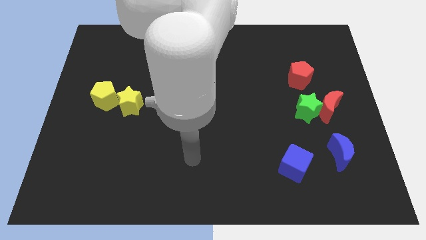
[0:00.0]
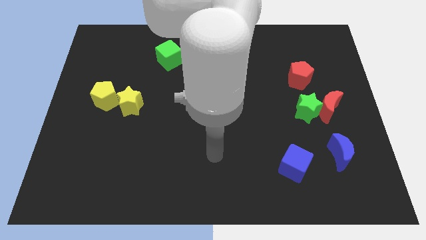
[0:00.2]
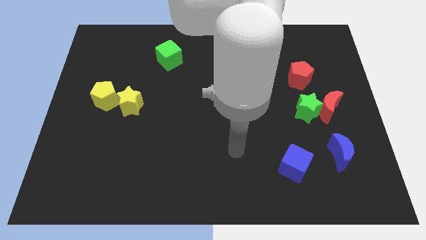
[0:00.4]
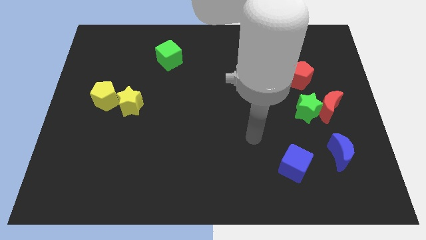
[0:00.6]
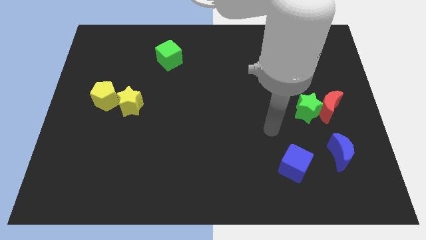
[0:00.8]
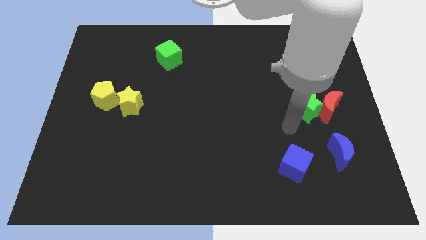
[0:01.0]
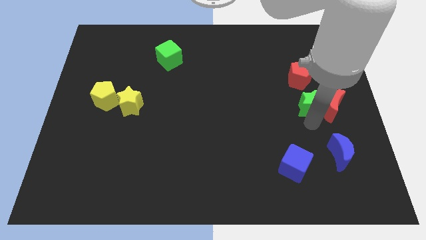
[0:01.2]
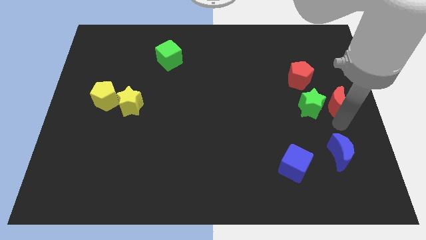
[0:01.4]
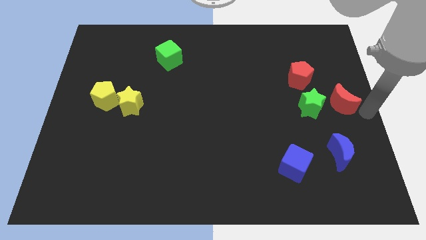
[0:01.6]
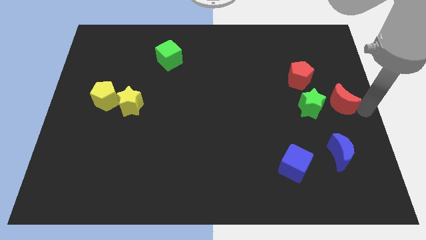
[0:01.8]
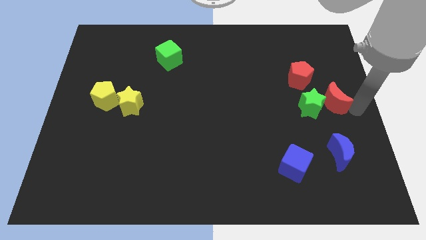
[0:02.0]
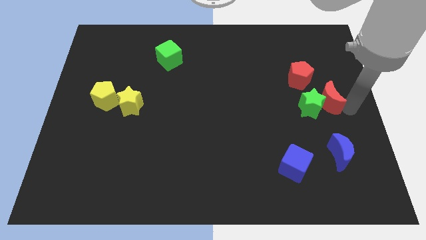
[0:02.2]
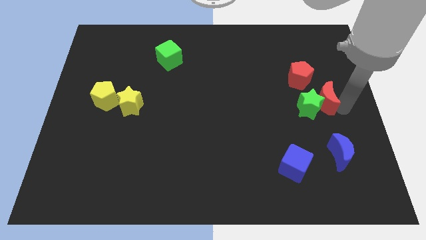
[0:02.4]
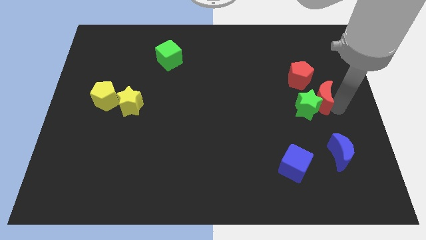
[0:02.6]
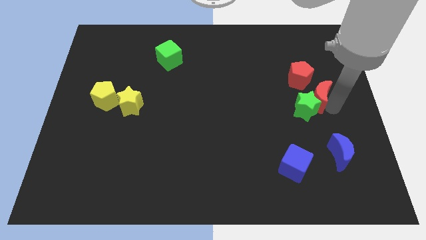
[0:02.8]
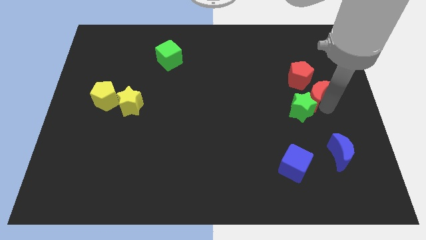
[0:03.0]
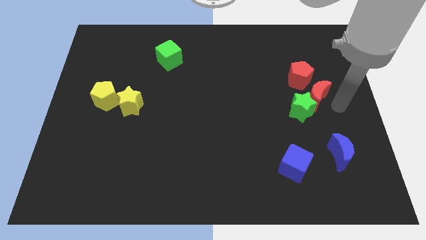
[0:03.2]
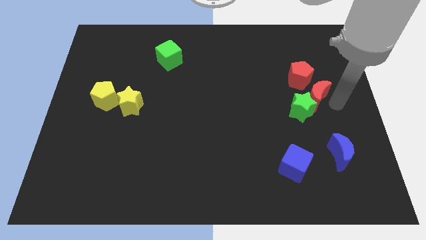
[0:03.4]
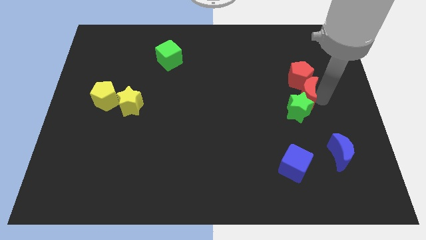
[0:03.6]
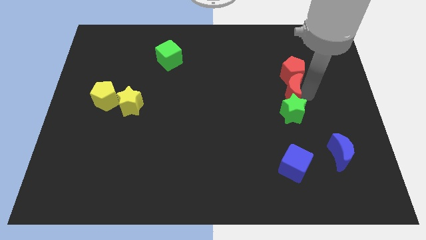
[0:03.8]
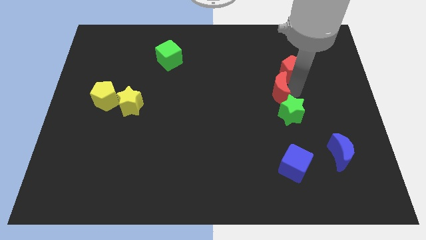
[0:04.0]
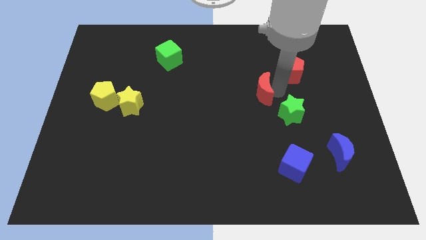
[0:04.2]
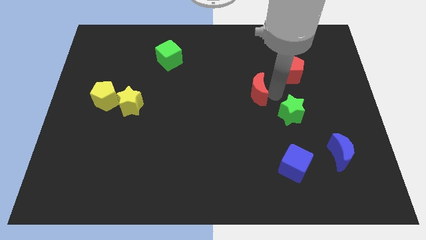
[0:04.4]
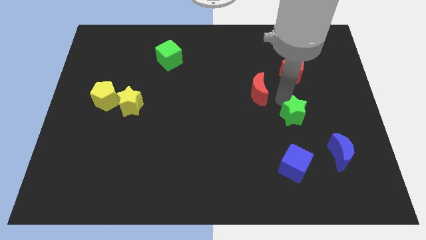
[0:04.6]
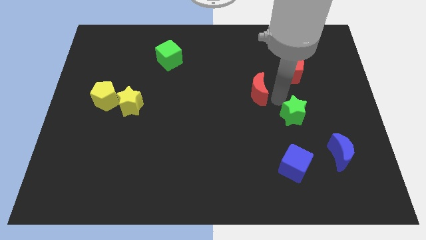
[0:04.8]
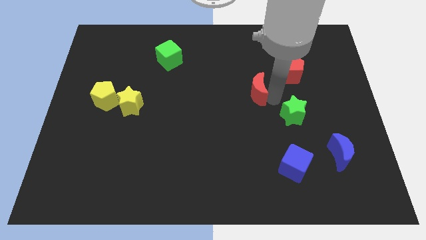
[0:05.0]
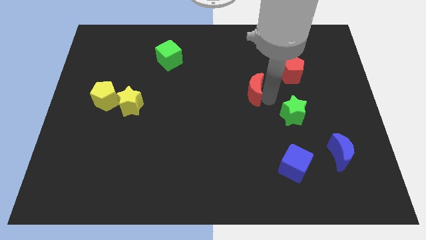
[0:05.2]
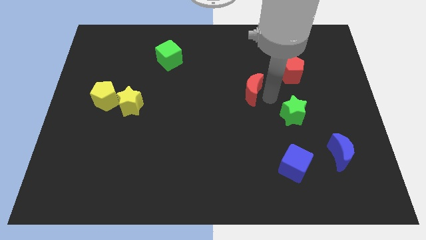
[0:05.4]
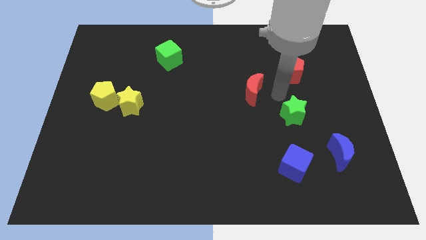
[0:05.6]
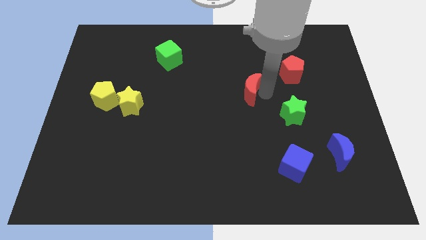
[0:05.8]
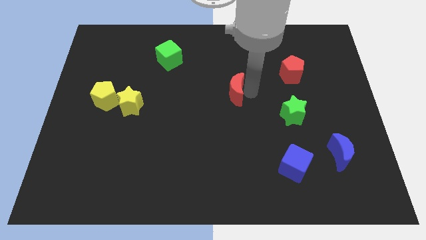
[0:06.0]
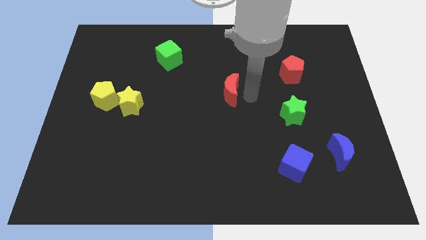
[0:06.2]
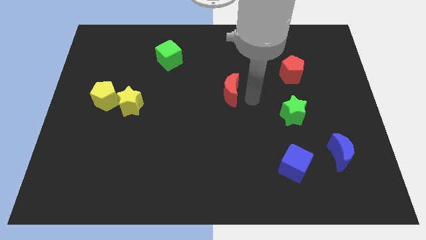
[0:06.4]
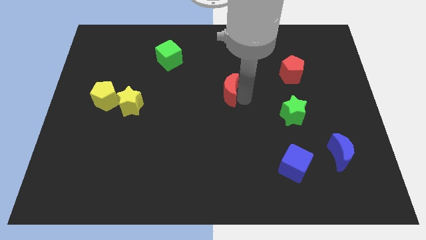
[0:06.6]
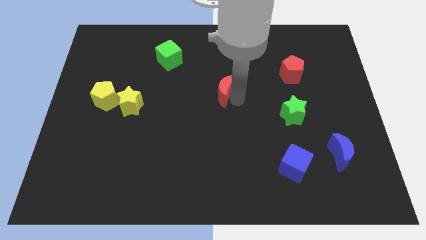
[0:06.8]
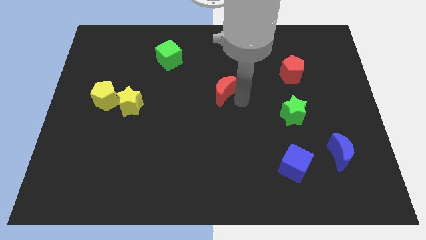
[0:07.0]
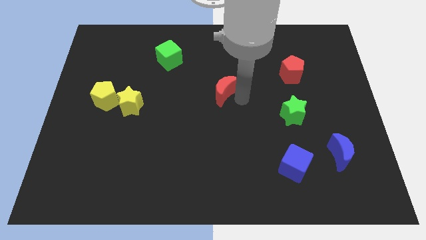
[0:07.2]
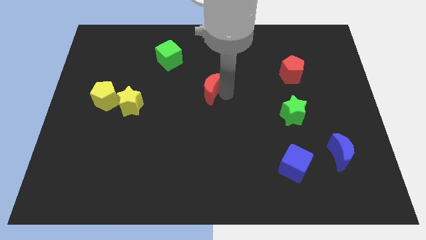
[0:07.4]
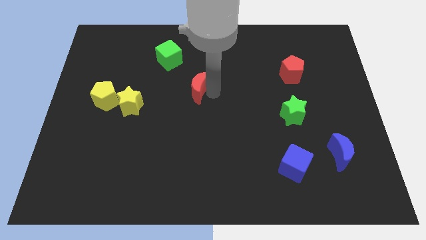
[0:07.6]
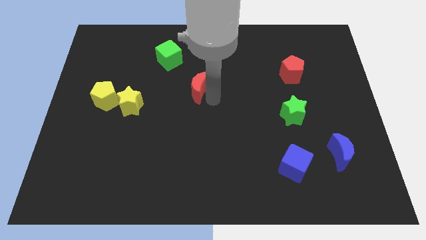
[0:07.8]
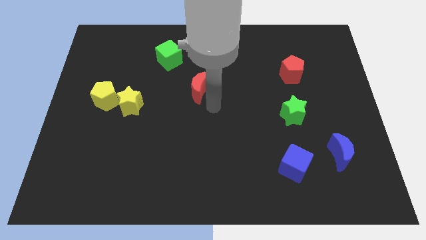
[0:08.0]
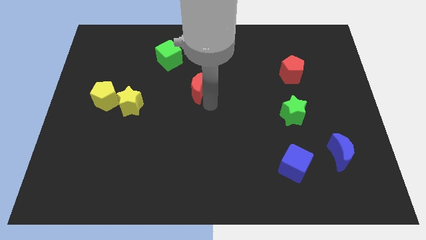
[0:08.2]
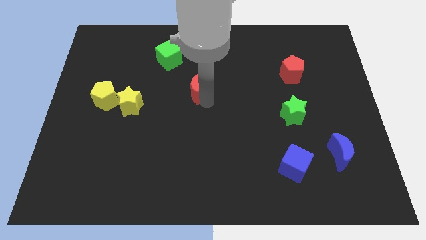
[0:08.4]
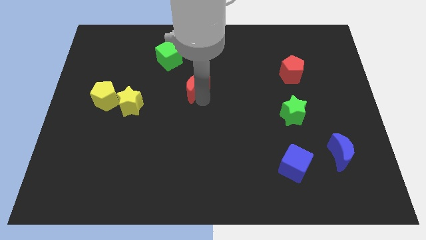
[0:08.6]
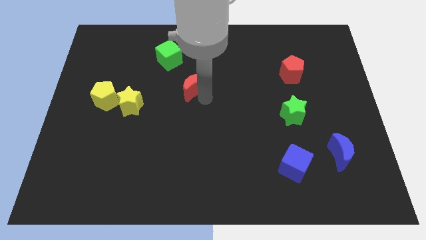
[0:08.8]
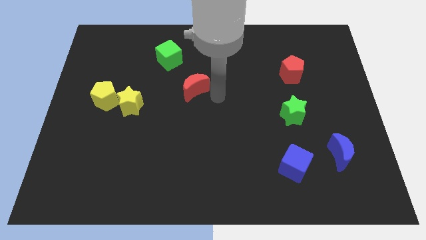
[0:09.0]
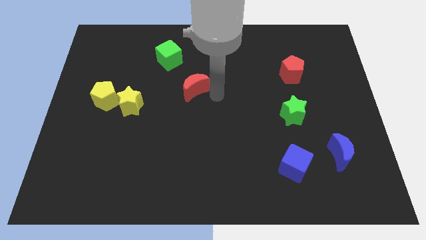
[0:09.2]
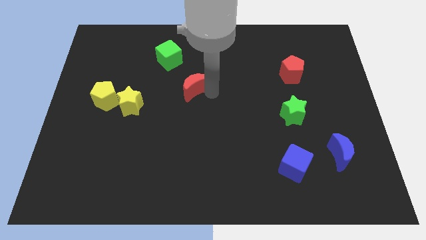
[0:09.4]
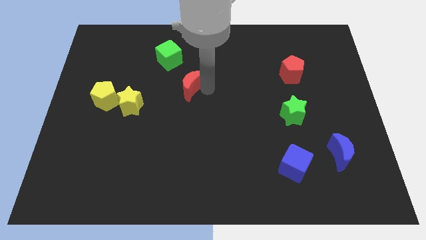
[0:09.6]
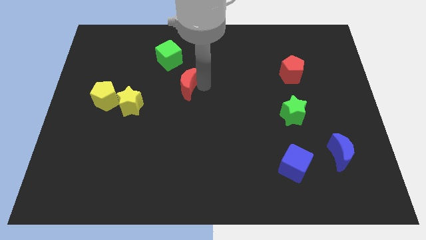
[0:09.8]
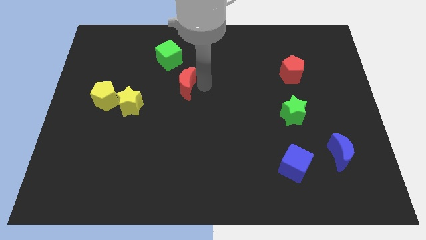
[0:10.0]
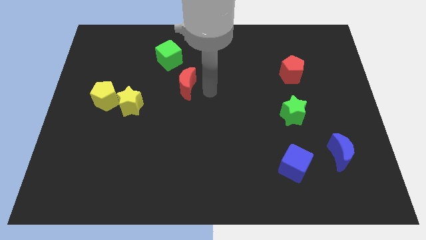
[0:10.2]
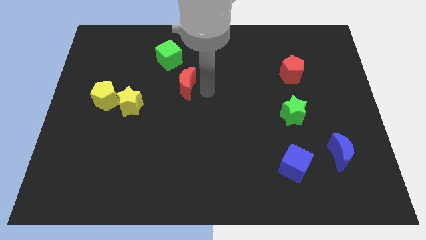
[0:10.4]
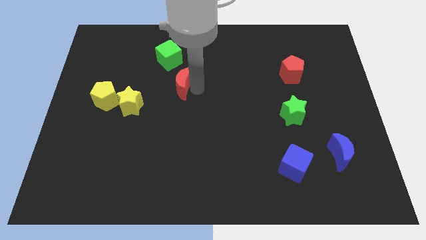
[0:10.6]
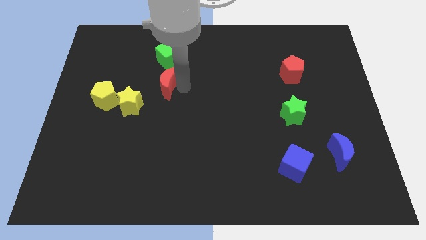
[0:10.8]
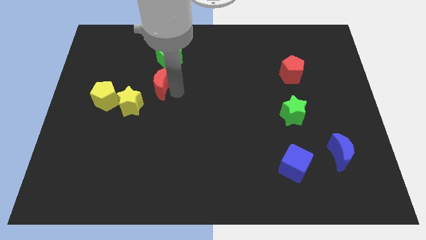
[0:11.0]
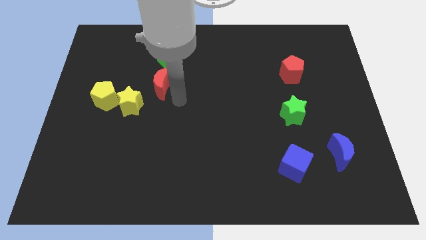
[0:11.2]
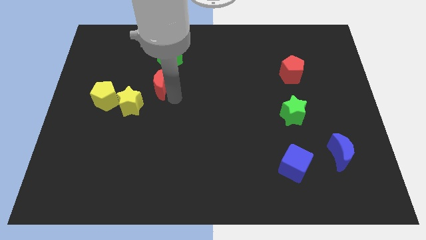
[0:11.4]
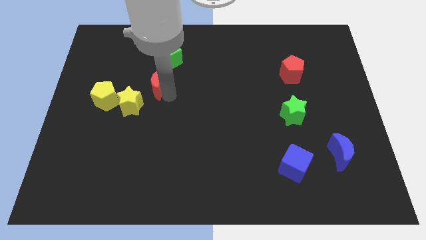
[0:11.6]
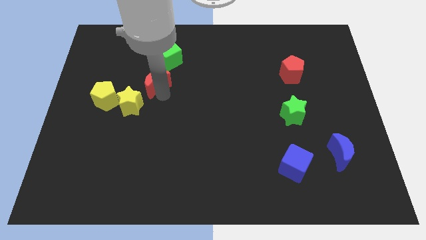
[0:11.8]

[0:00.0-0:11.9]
put the red moon to the bottom left side of the green cube

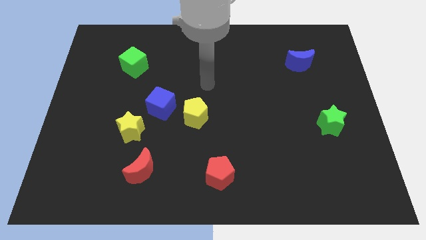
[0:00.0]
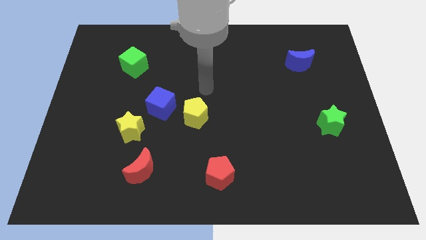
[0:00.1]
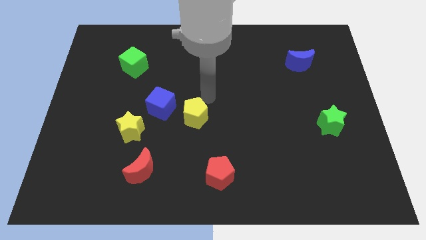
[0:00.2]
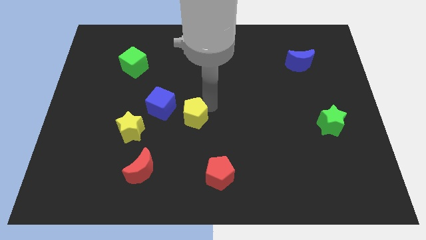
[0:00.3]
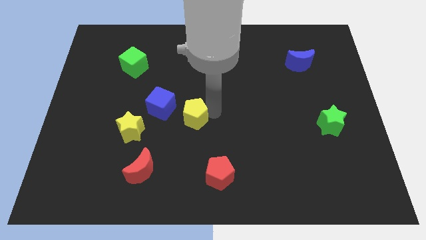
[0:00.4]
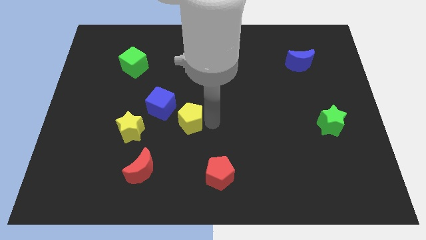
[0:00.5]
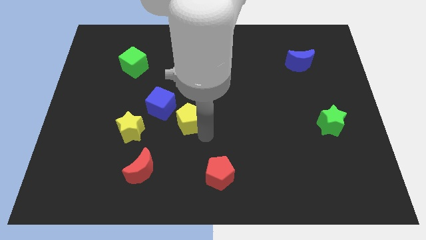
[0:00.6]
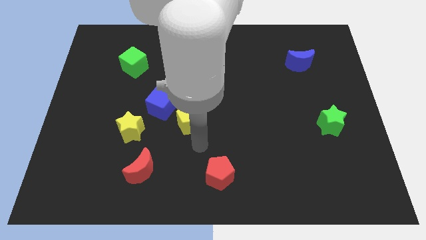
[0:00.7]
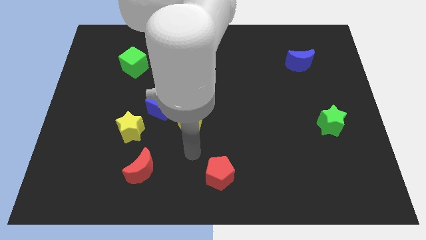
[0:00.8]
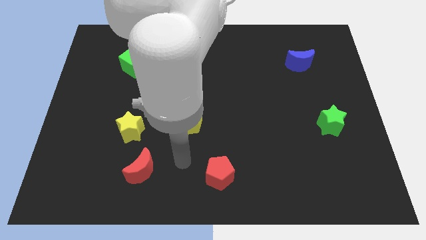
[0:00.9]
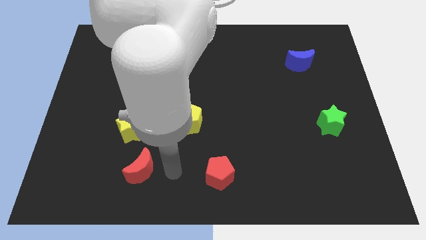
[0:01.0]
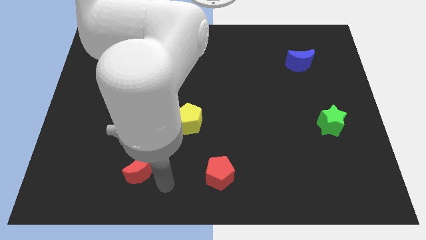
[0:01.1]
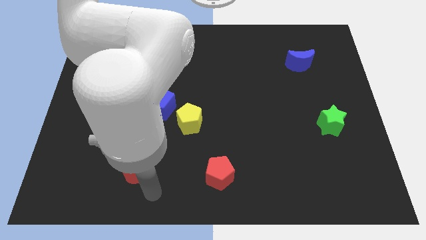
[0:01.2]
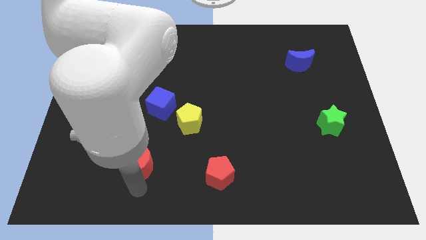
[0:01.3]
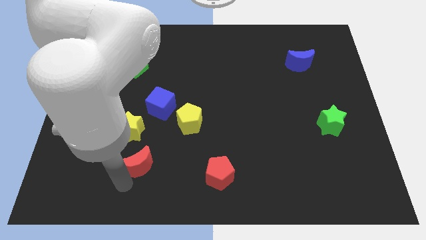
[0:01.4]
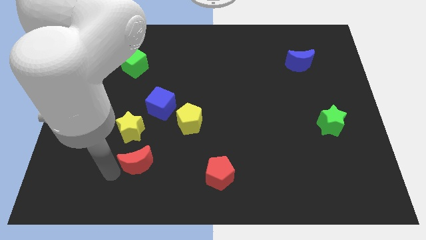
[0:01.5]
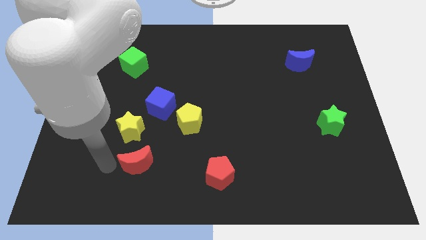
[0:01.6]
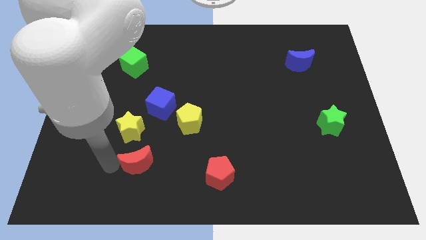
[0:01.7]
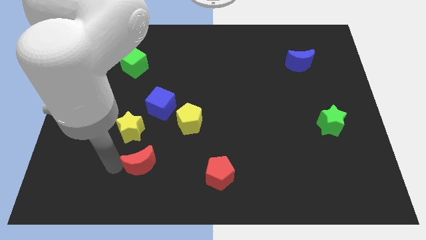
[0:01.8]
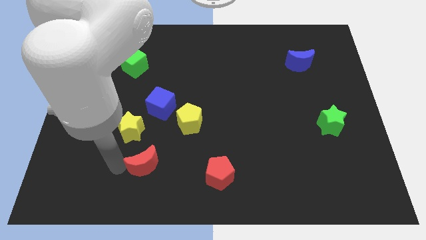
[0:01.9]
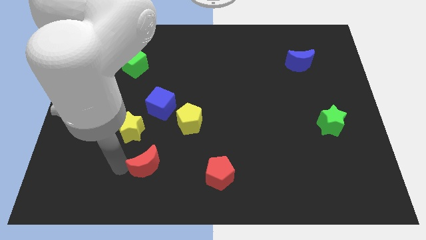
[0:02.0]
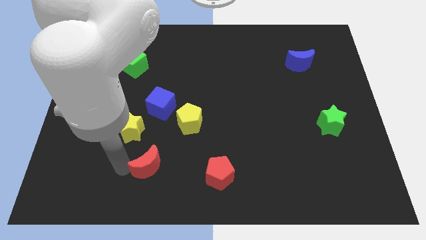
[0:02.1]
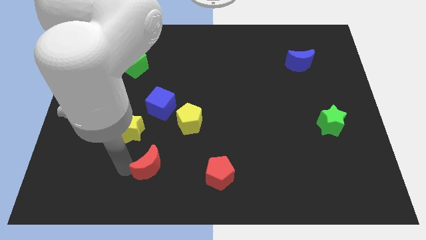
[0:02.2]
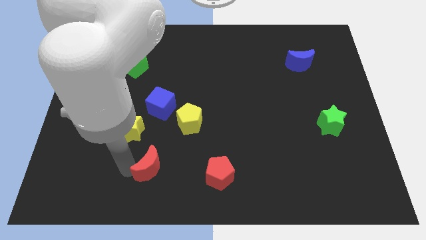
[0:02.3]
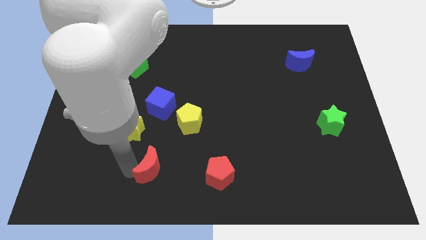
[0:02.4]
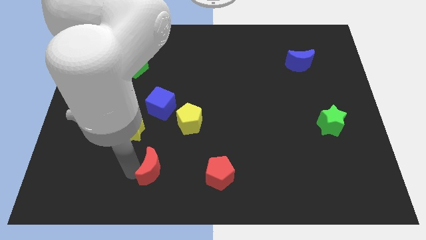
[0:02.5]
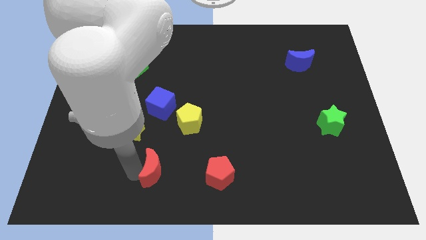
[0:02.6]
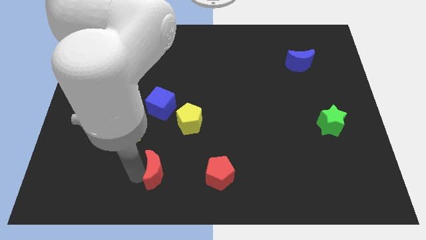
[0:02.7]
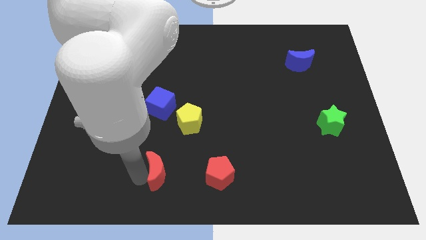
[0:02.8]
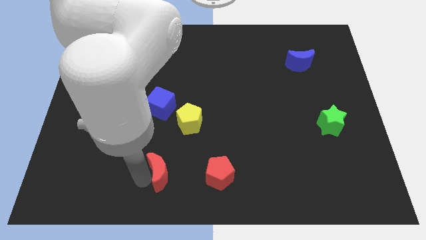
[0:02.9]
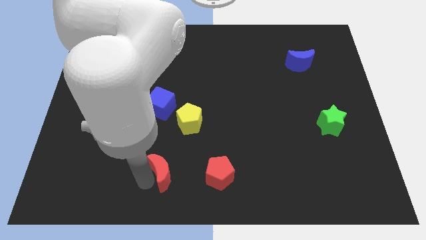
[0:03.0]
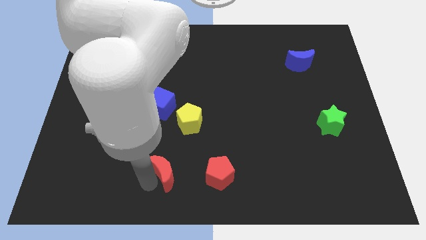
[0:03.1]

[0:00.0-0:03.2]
push the red moon to the bottom side of the yellow pentagon
